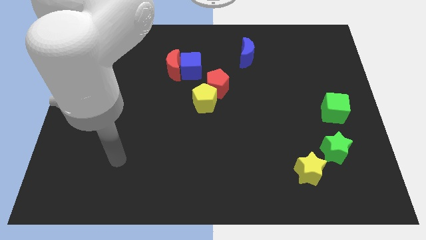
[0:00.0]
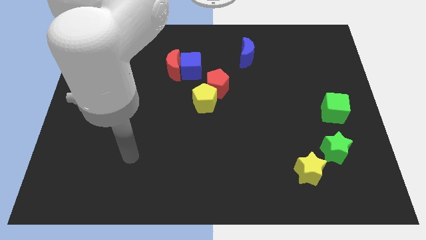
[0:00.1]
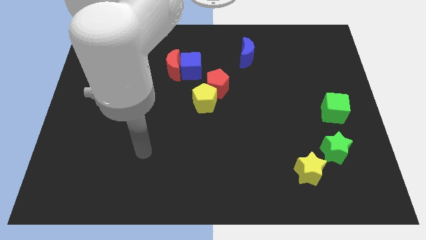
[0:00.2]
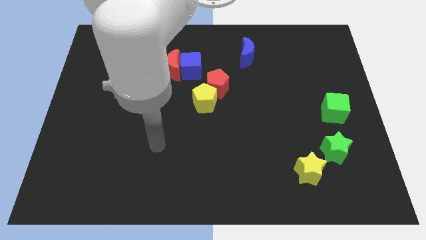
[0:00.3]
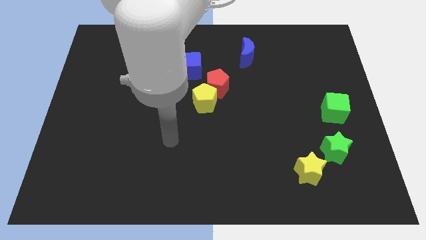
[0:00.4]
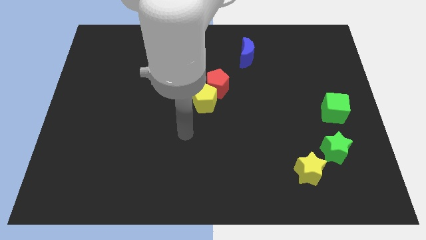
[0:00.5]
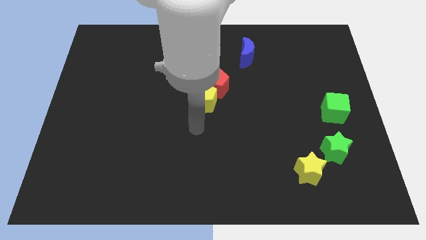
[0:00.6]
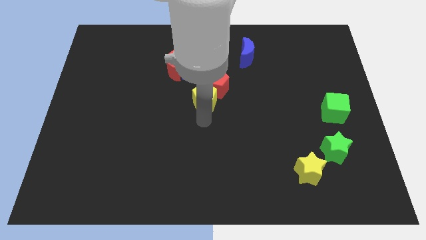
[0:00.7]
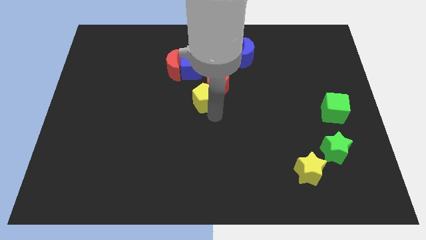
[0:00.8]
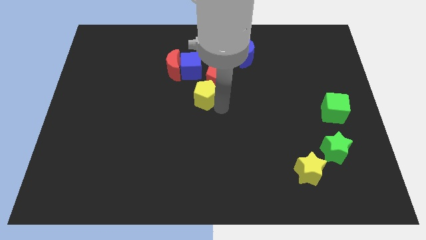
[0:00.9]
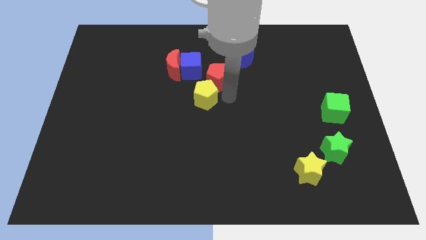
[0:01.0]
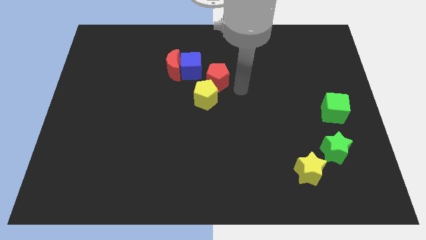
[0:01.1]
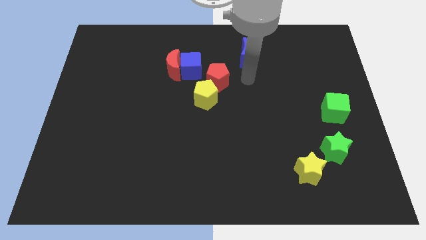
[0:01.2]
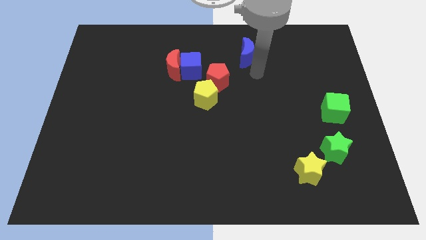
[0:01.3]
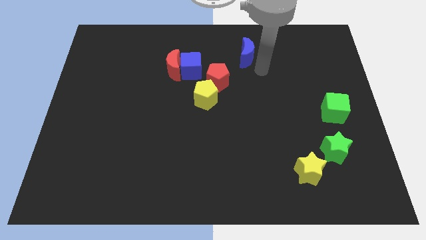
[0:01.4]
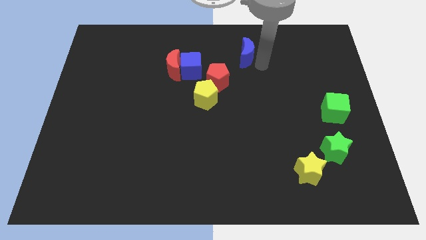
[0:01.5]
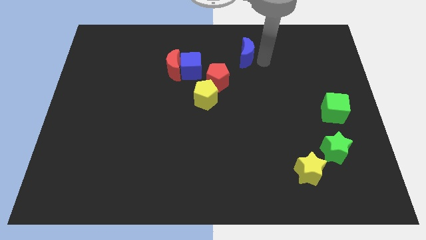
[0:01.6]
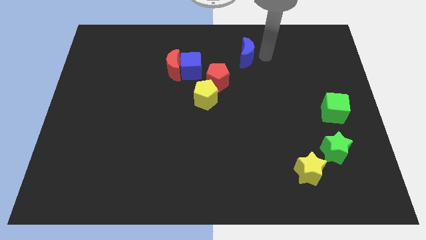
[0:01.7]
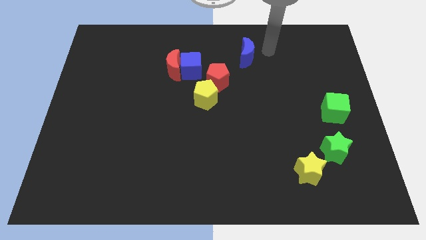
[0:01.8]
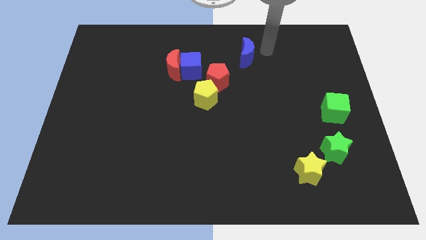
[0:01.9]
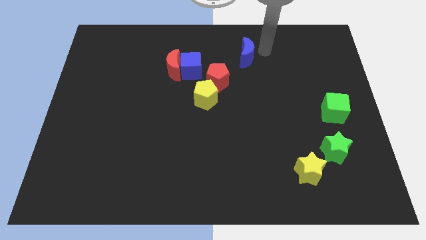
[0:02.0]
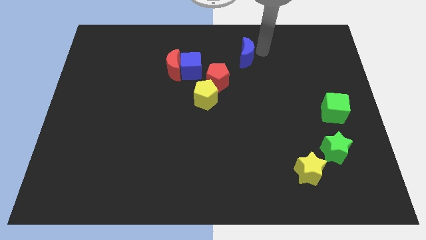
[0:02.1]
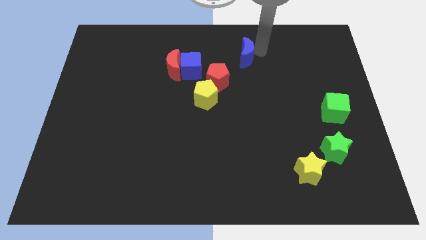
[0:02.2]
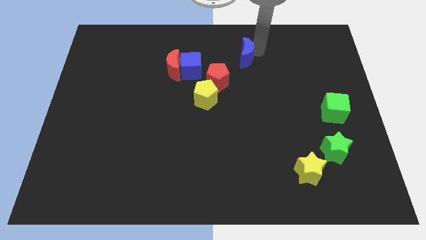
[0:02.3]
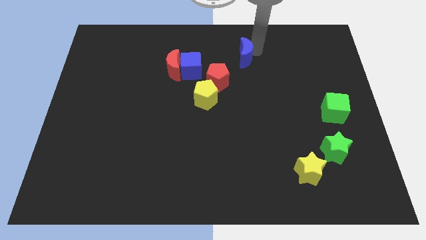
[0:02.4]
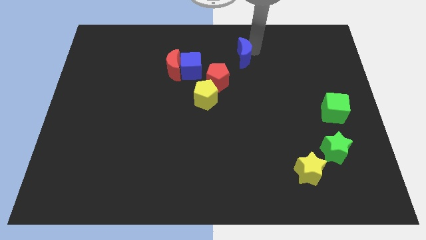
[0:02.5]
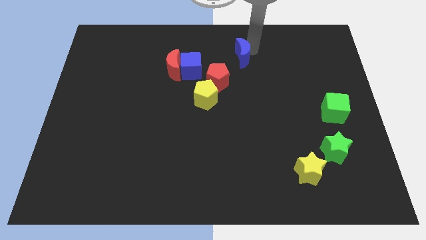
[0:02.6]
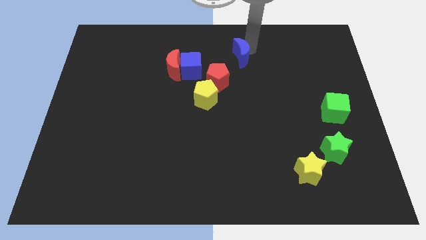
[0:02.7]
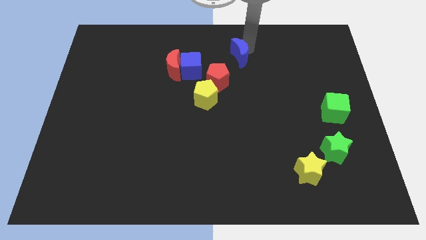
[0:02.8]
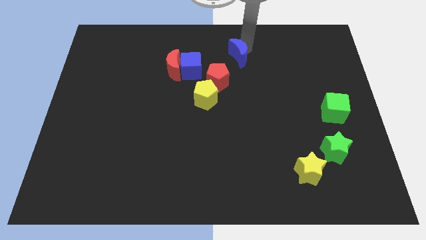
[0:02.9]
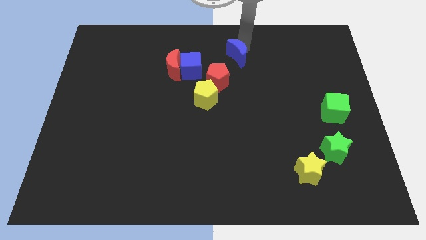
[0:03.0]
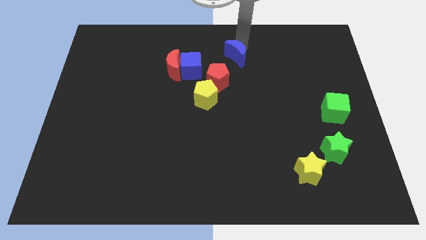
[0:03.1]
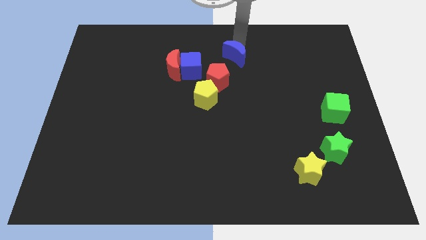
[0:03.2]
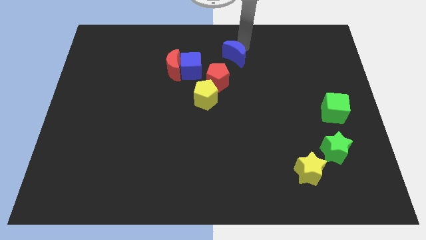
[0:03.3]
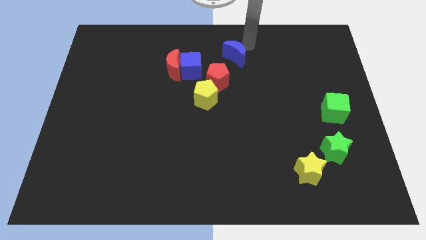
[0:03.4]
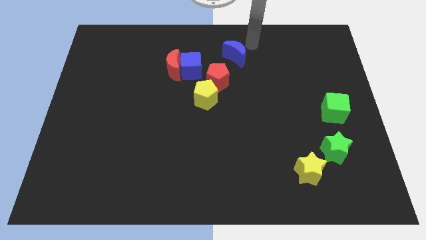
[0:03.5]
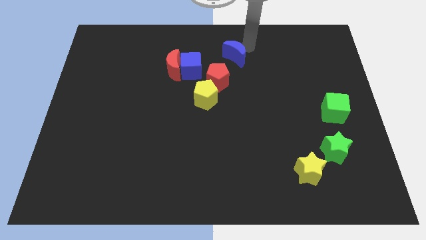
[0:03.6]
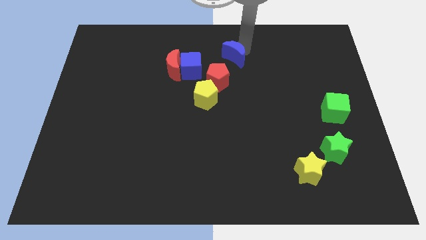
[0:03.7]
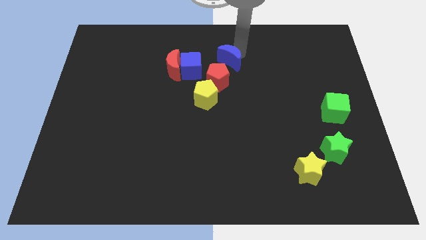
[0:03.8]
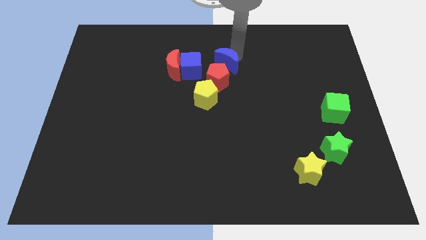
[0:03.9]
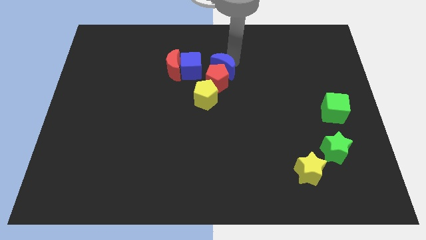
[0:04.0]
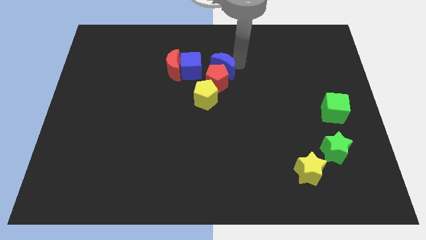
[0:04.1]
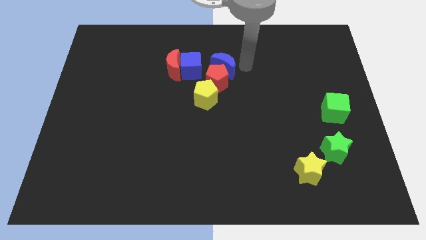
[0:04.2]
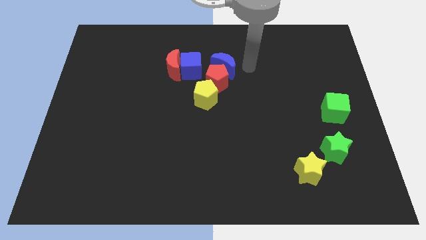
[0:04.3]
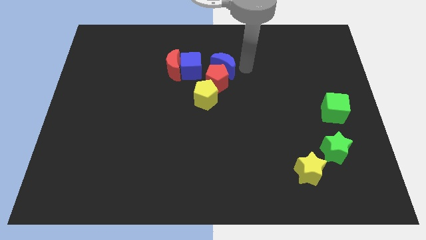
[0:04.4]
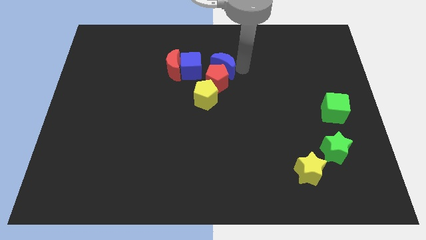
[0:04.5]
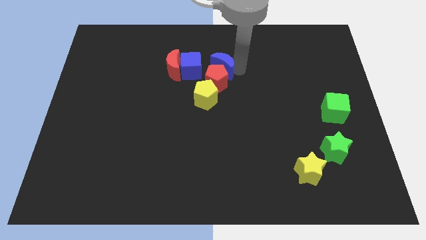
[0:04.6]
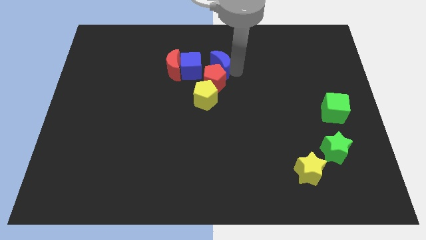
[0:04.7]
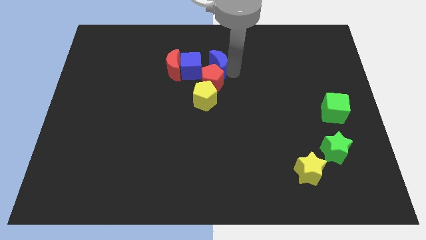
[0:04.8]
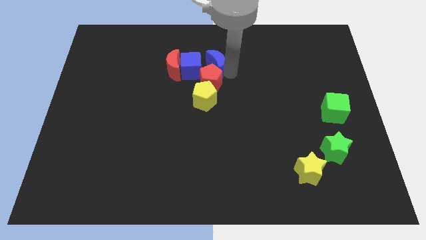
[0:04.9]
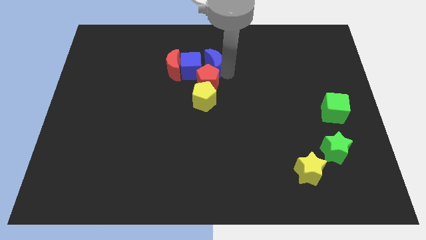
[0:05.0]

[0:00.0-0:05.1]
move the blue moon close to the blue cube

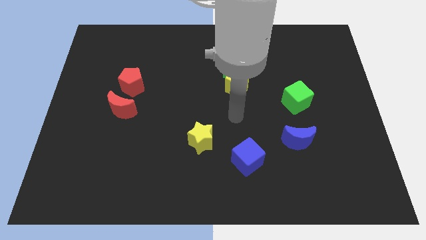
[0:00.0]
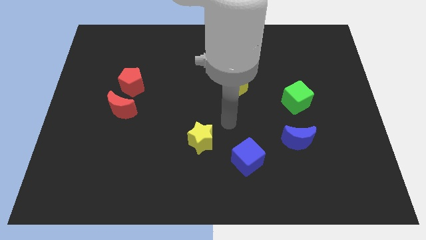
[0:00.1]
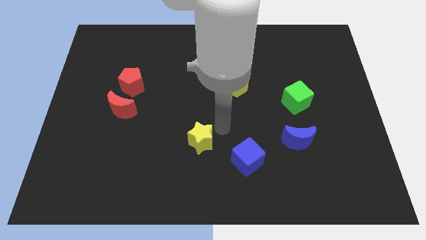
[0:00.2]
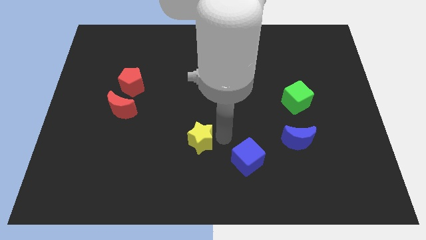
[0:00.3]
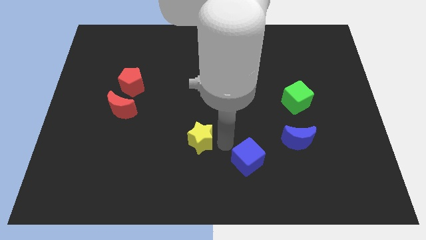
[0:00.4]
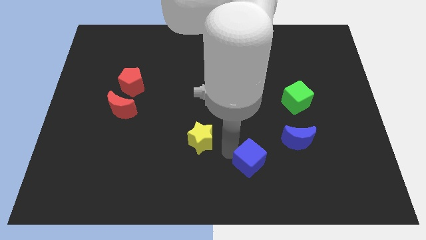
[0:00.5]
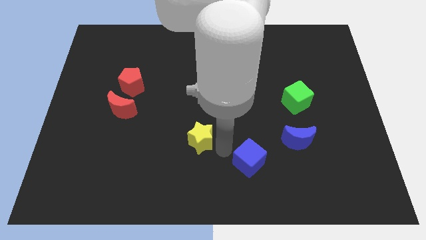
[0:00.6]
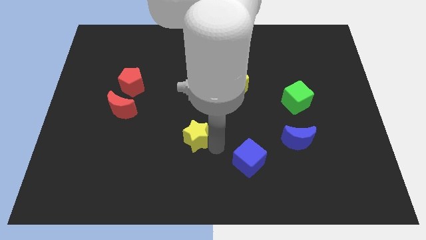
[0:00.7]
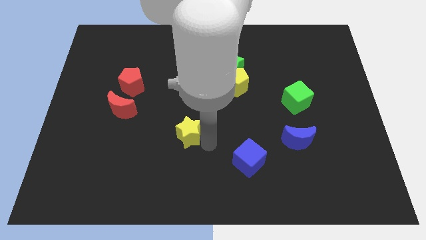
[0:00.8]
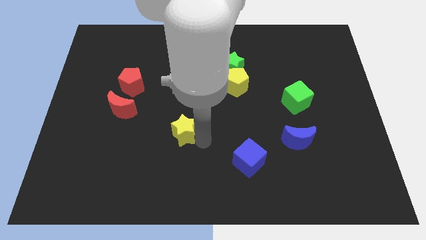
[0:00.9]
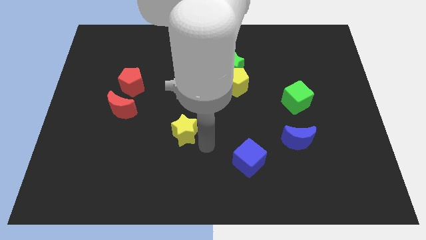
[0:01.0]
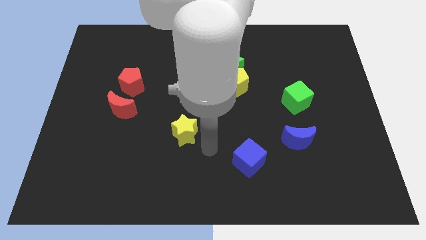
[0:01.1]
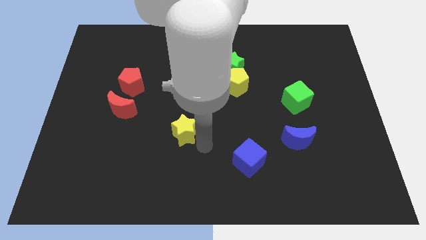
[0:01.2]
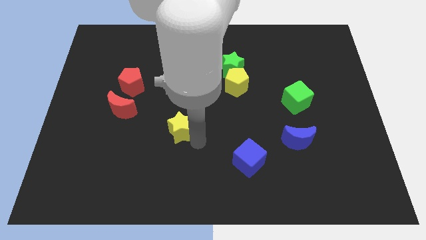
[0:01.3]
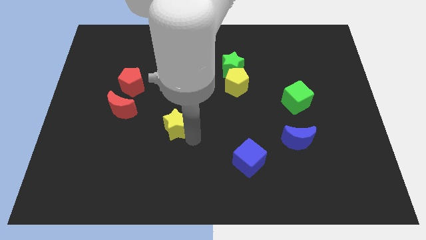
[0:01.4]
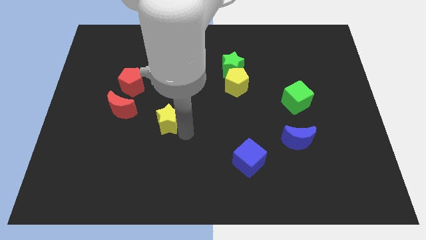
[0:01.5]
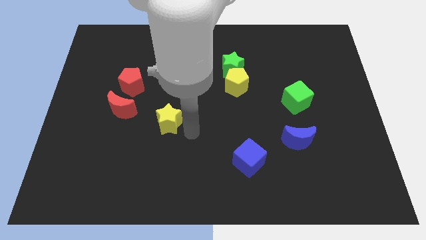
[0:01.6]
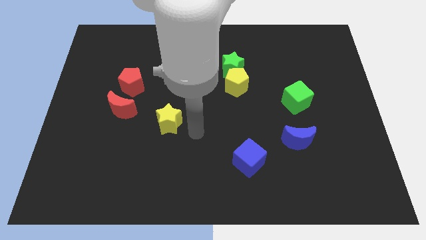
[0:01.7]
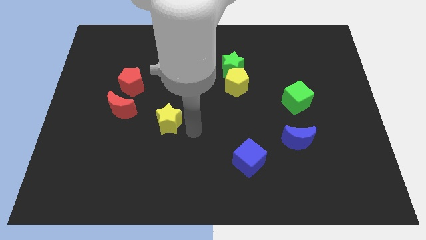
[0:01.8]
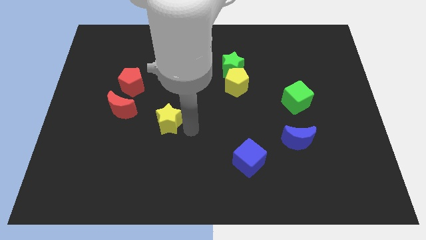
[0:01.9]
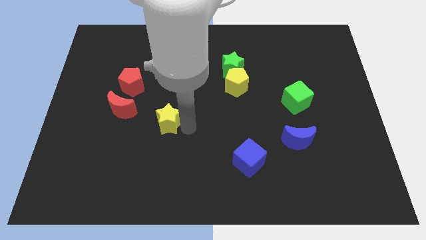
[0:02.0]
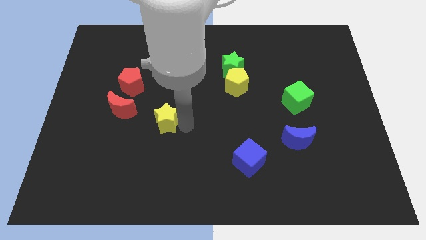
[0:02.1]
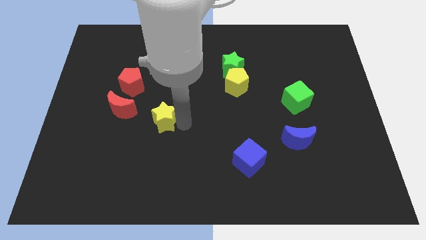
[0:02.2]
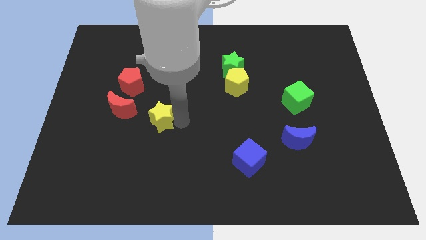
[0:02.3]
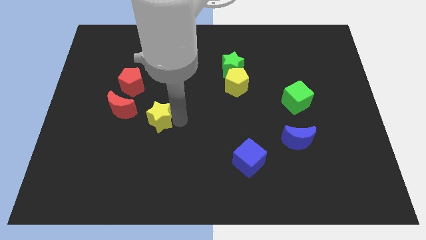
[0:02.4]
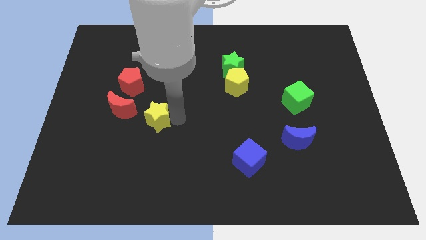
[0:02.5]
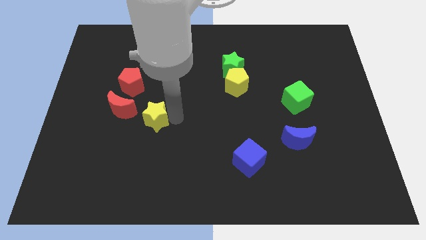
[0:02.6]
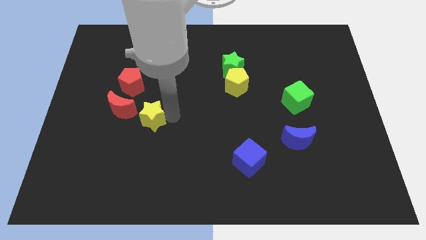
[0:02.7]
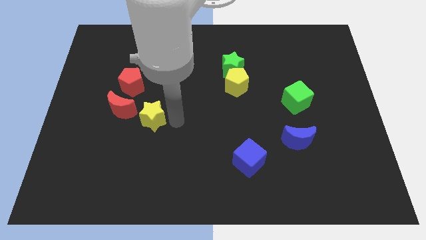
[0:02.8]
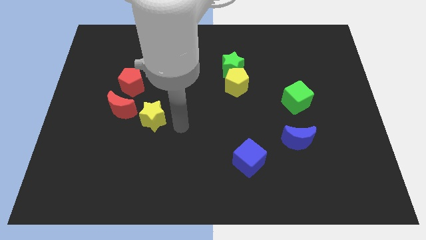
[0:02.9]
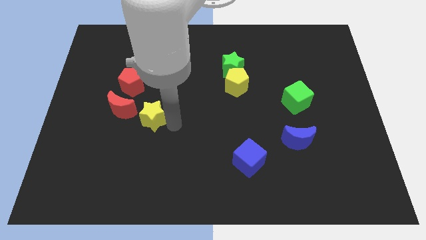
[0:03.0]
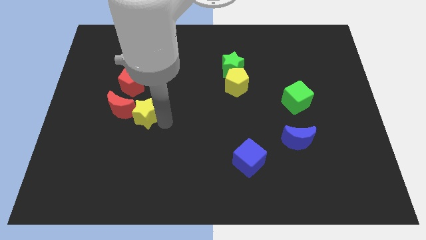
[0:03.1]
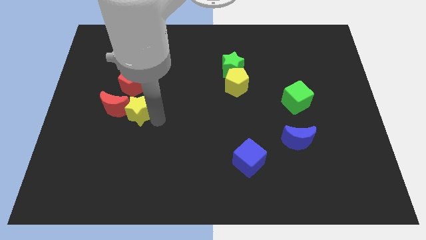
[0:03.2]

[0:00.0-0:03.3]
push the yellow star next to the red moon
